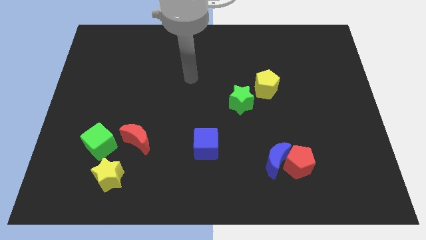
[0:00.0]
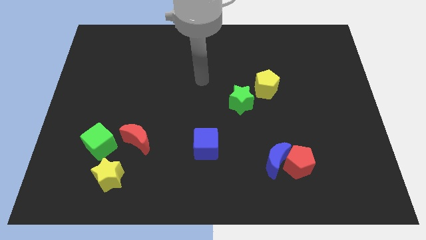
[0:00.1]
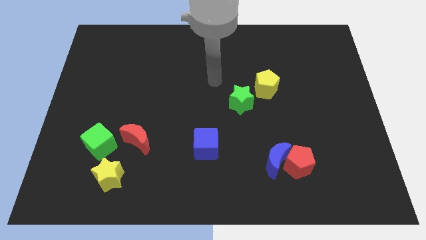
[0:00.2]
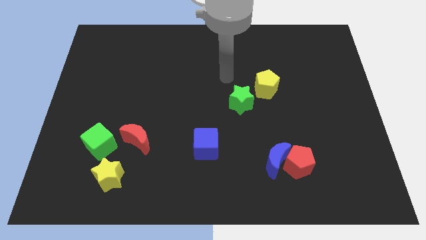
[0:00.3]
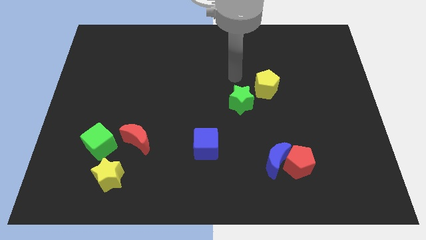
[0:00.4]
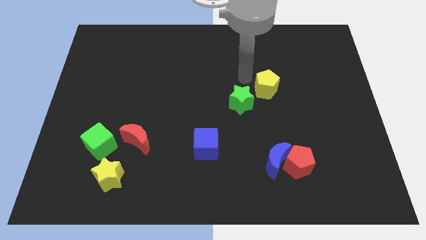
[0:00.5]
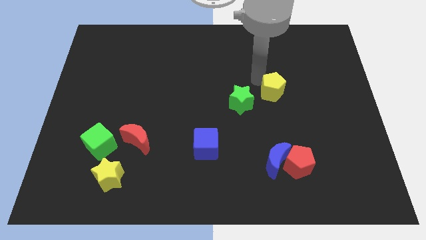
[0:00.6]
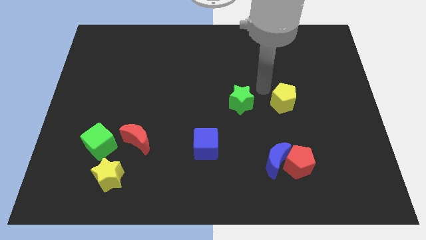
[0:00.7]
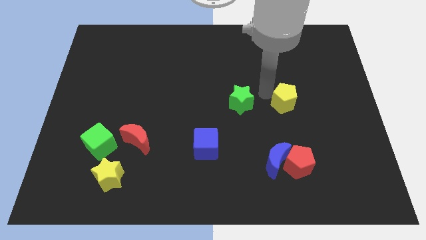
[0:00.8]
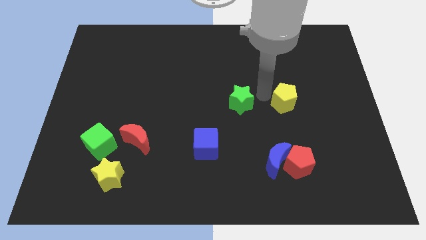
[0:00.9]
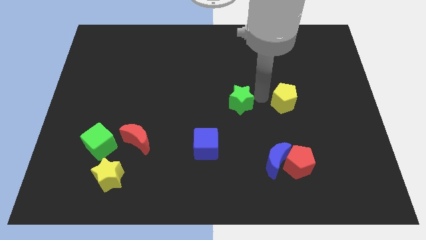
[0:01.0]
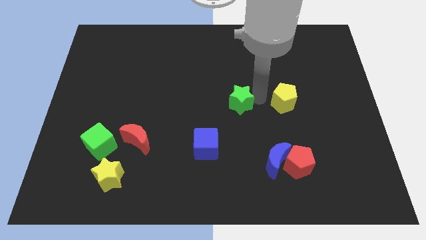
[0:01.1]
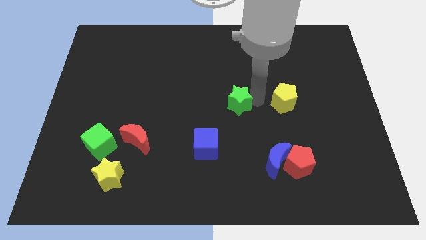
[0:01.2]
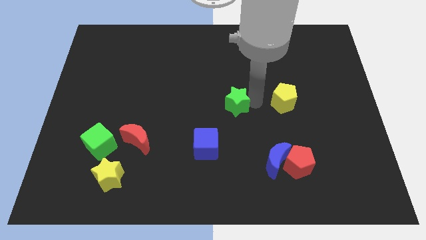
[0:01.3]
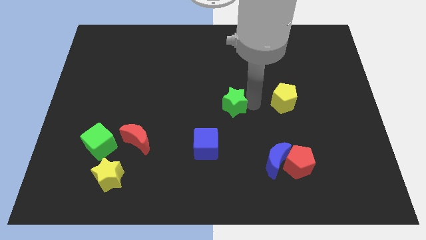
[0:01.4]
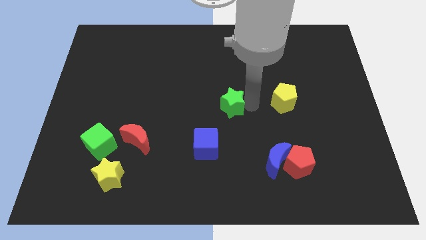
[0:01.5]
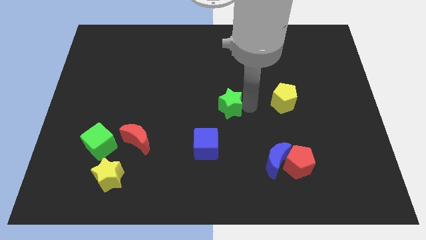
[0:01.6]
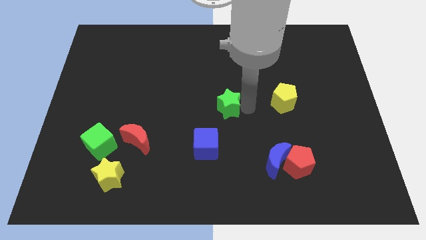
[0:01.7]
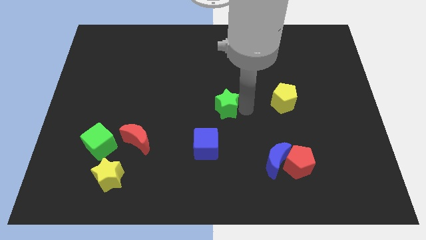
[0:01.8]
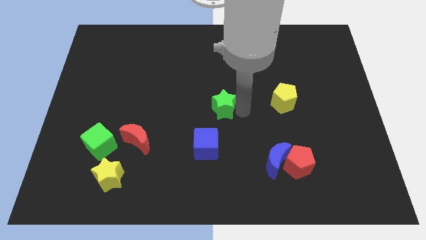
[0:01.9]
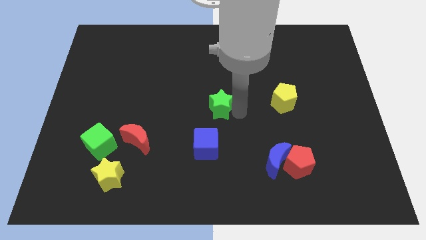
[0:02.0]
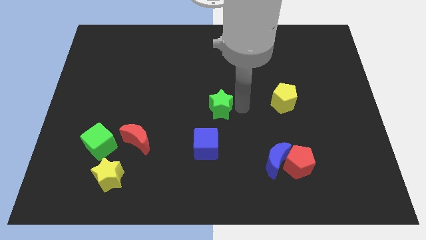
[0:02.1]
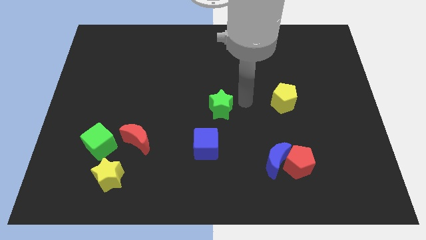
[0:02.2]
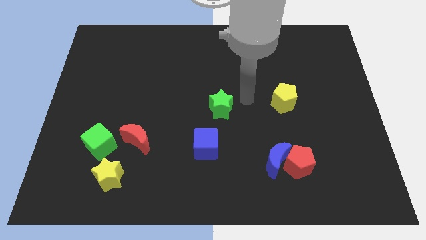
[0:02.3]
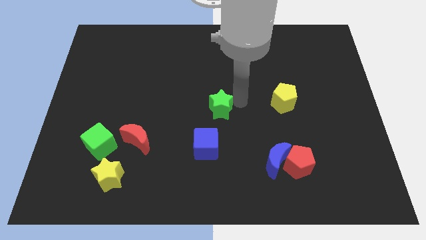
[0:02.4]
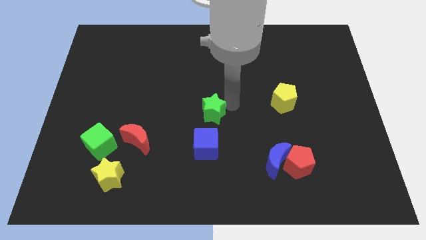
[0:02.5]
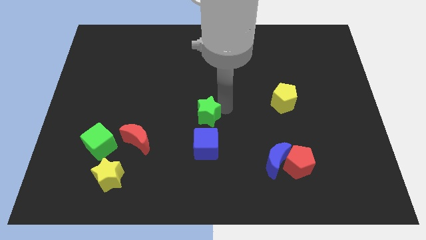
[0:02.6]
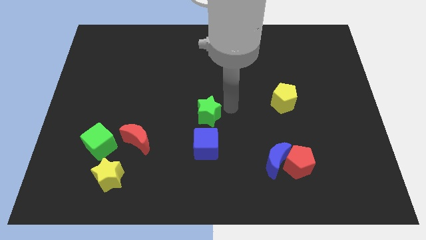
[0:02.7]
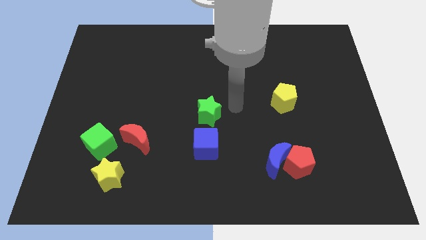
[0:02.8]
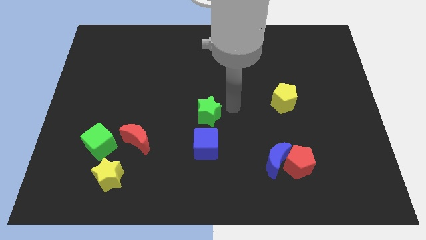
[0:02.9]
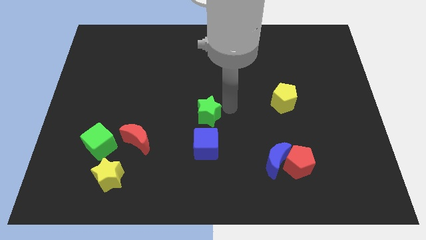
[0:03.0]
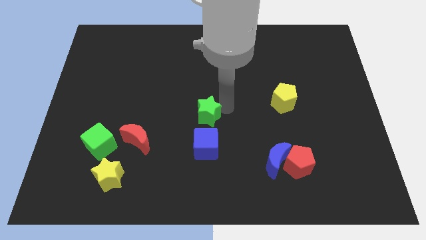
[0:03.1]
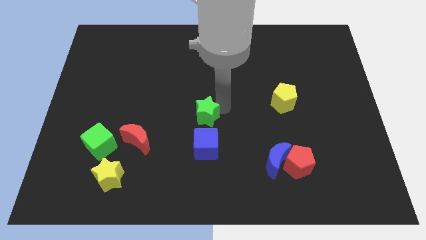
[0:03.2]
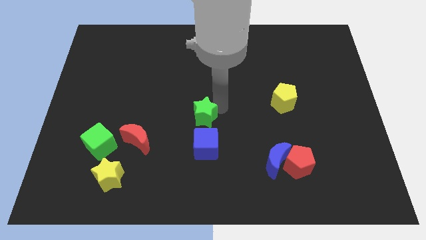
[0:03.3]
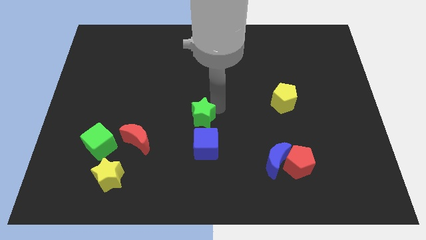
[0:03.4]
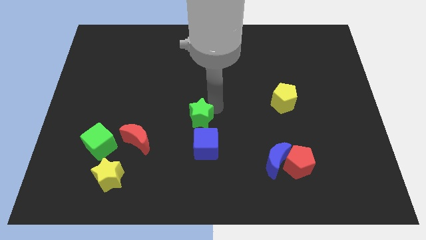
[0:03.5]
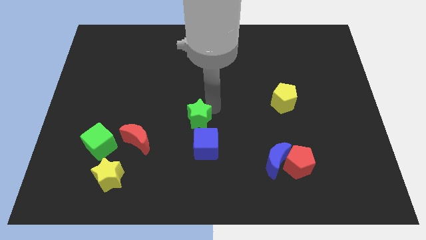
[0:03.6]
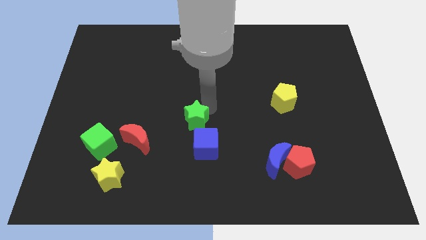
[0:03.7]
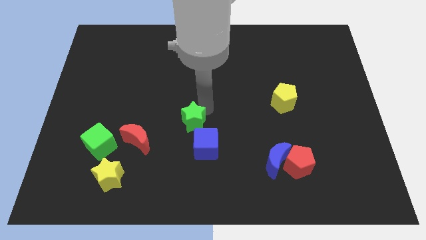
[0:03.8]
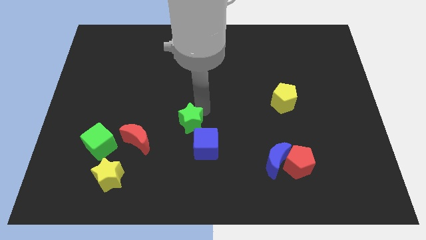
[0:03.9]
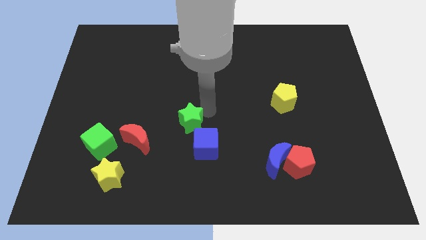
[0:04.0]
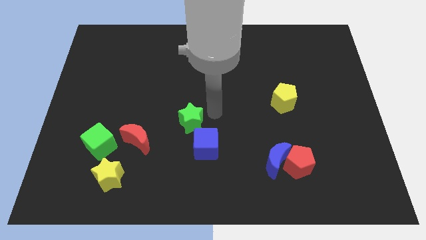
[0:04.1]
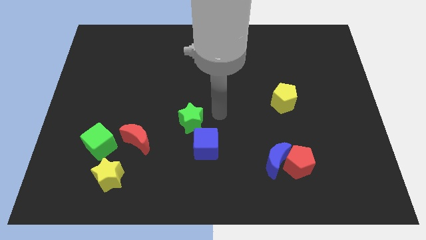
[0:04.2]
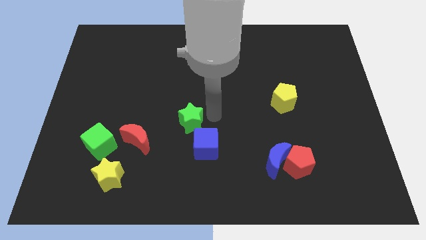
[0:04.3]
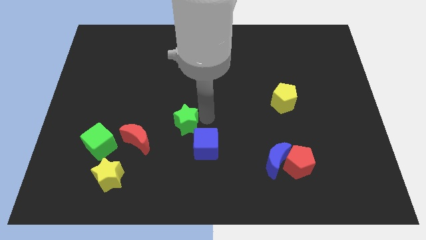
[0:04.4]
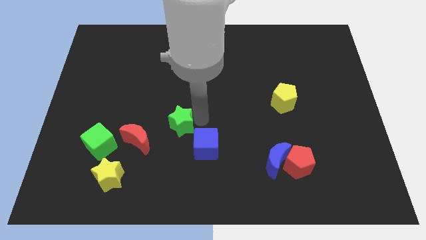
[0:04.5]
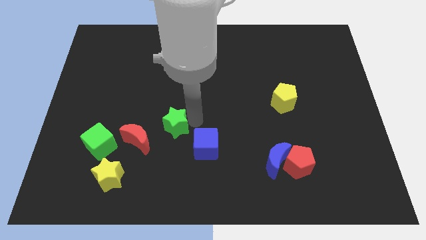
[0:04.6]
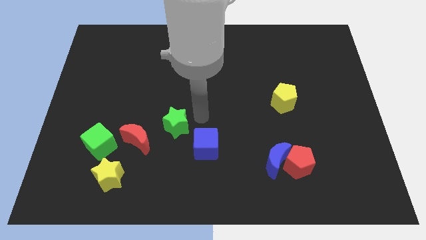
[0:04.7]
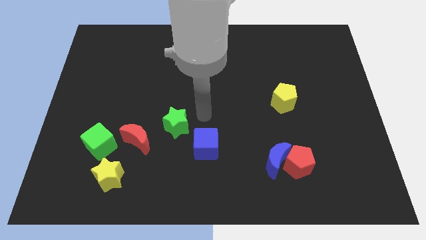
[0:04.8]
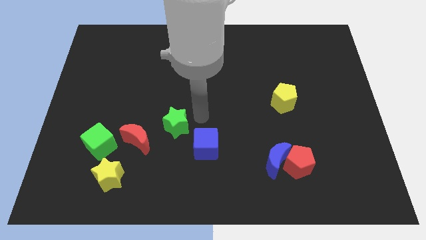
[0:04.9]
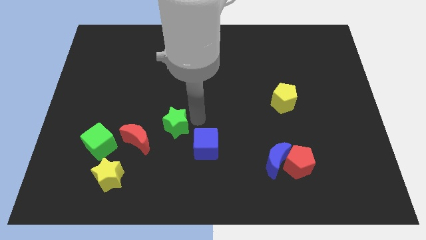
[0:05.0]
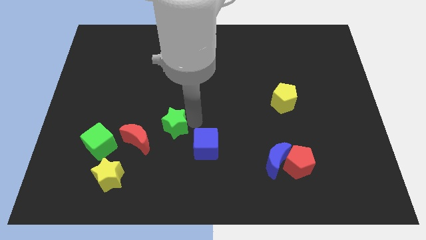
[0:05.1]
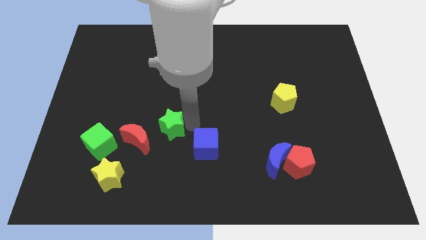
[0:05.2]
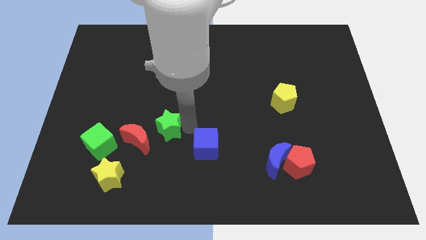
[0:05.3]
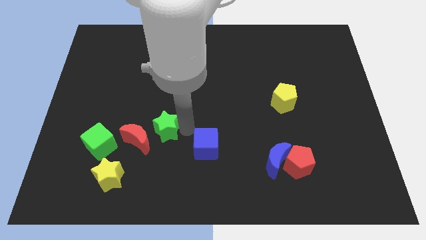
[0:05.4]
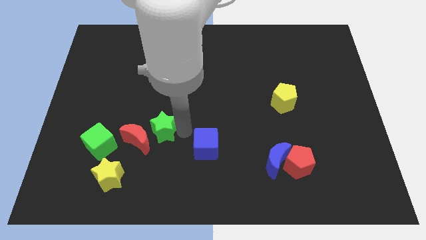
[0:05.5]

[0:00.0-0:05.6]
move the green star to the red moon
